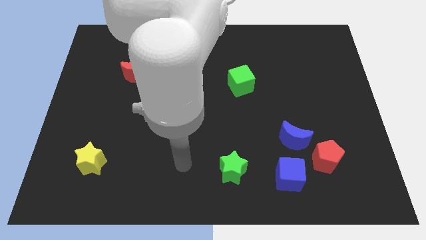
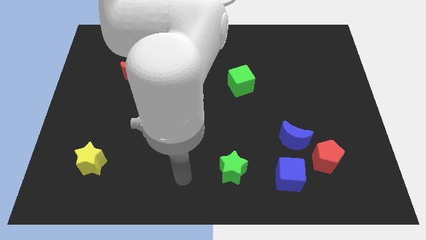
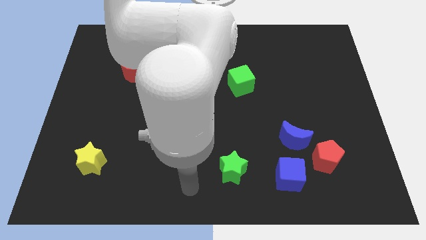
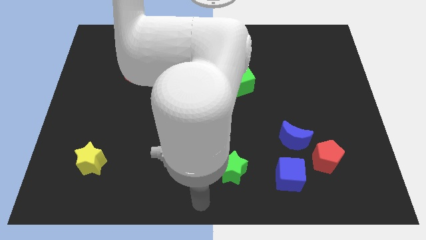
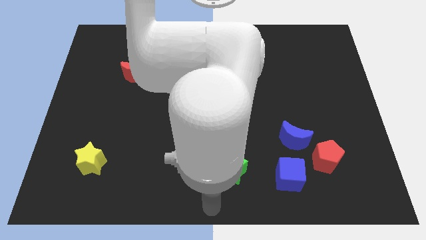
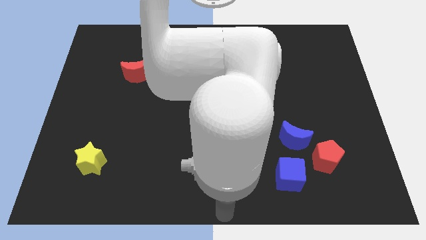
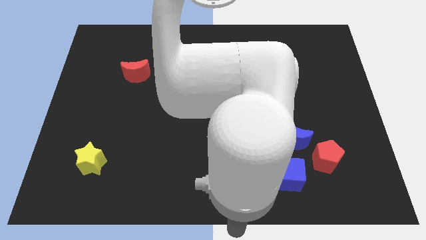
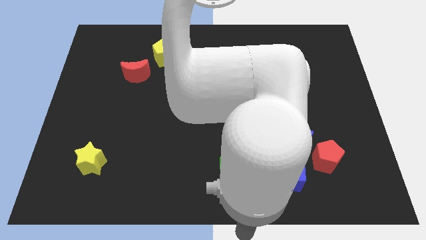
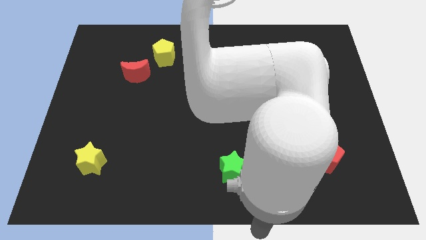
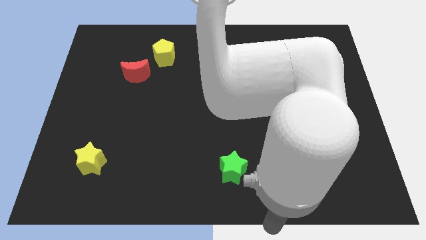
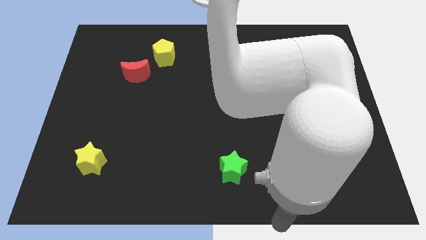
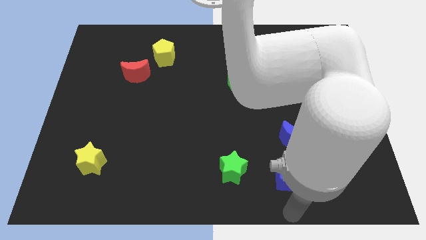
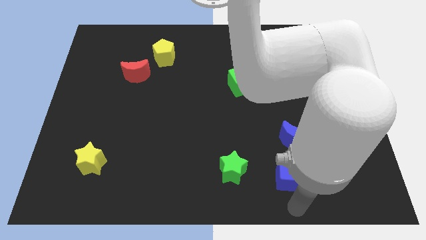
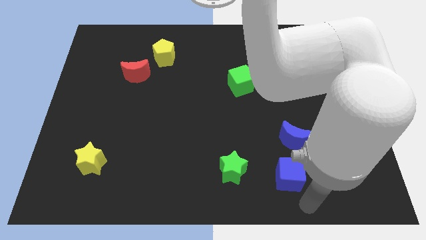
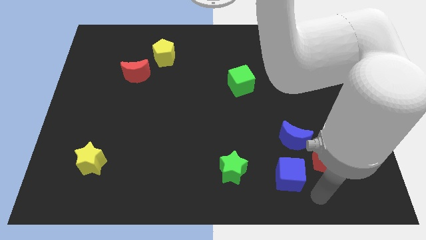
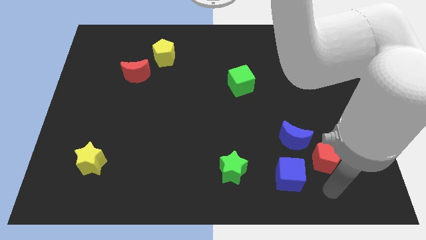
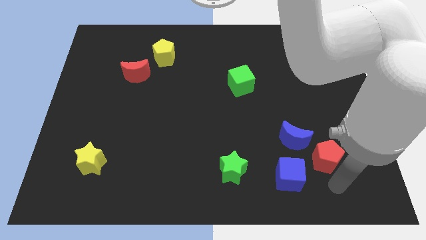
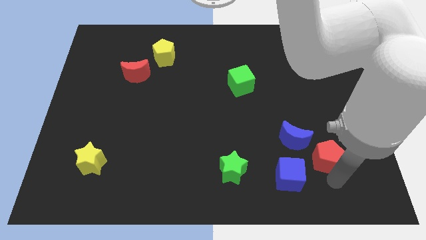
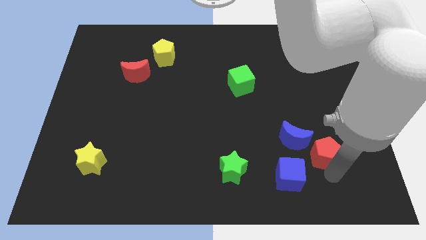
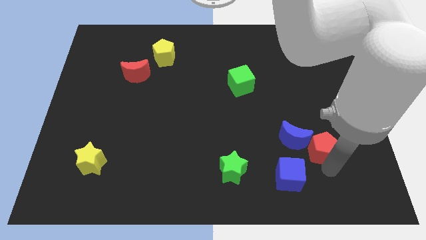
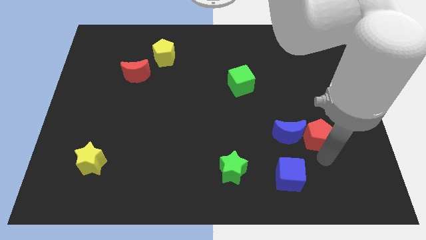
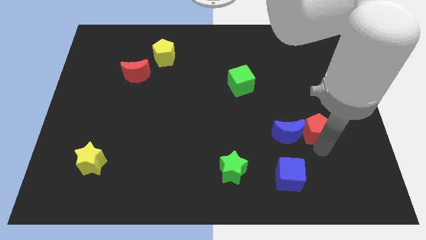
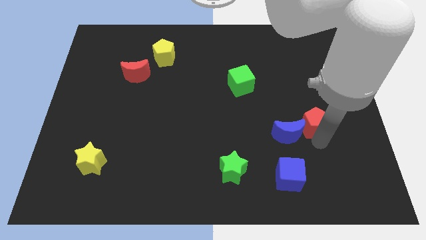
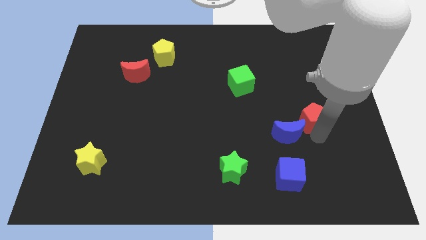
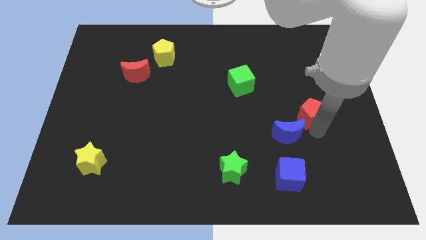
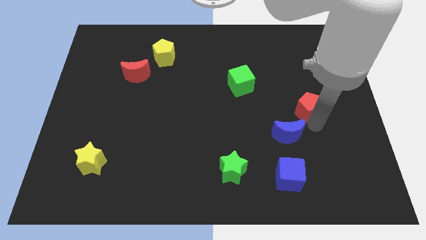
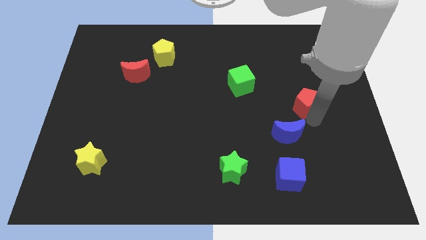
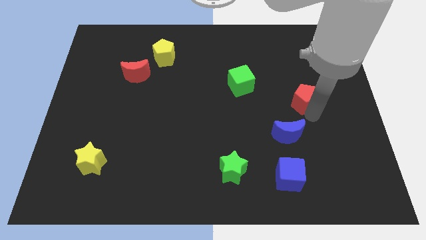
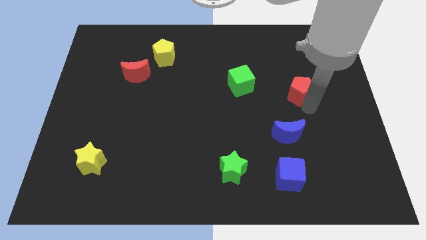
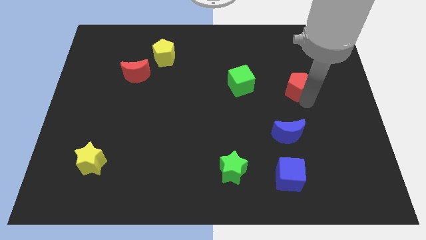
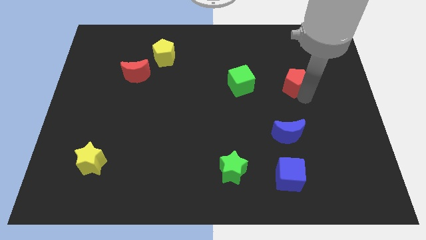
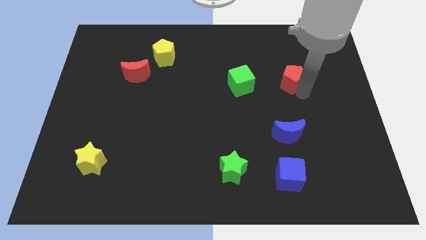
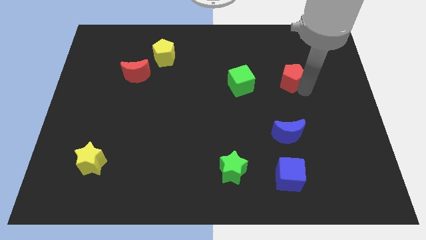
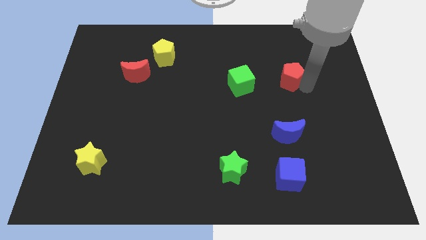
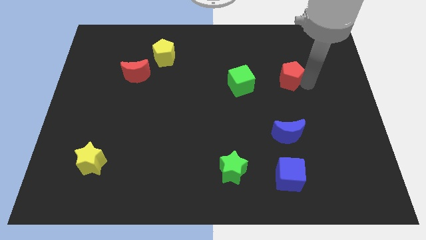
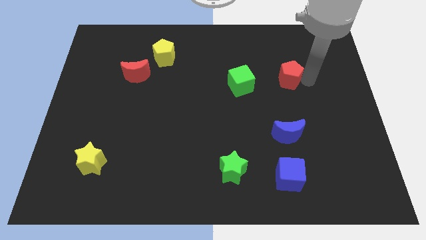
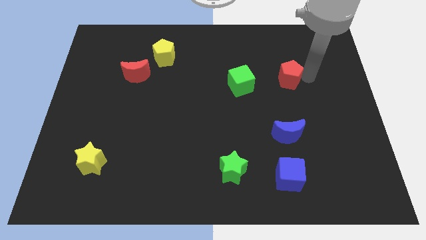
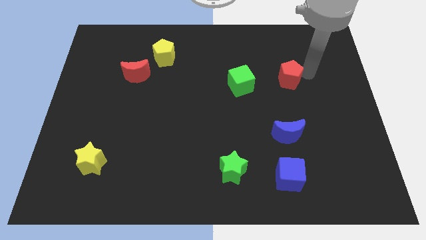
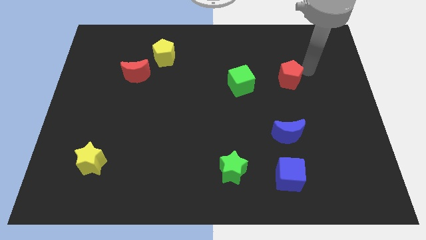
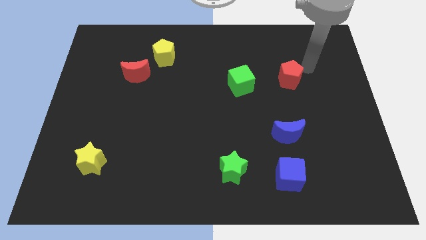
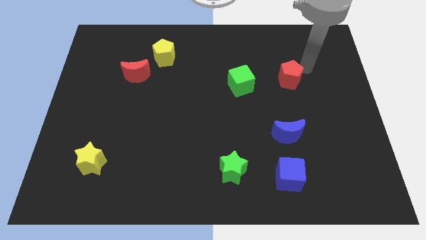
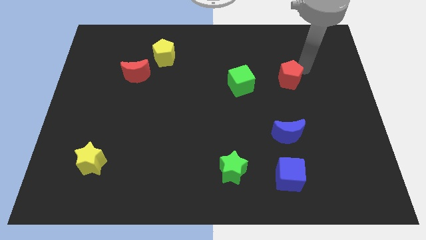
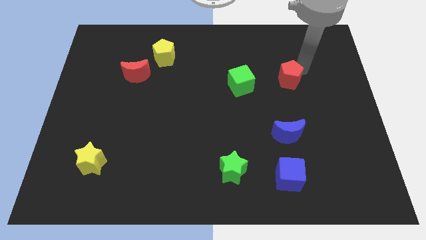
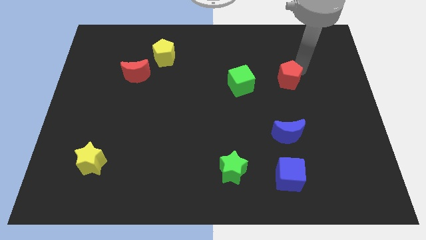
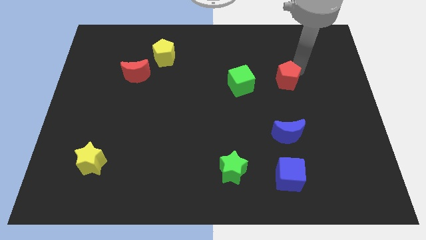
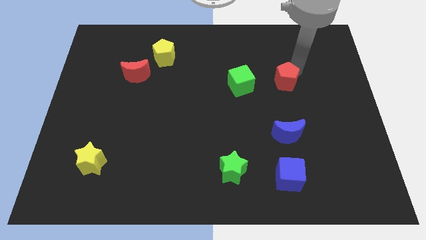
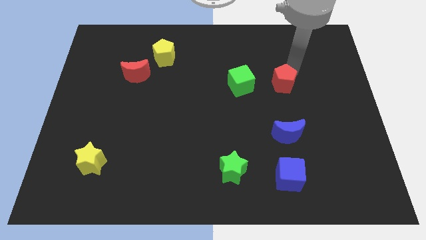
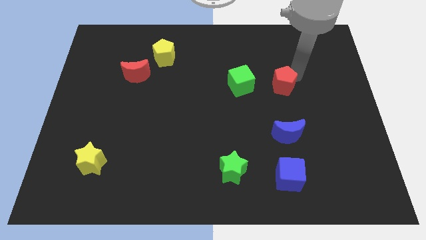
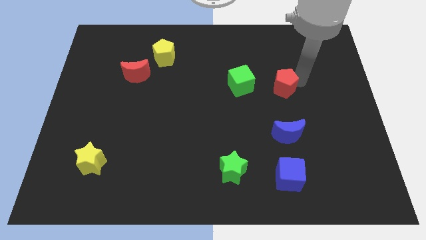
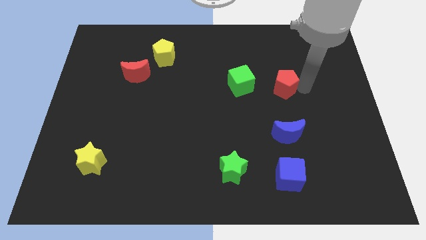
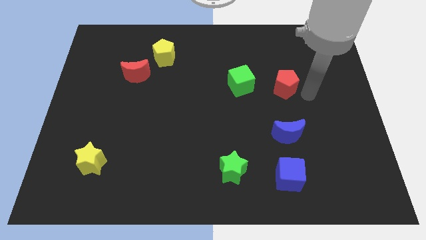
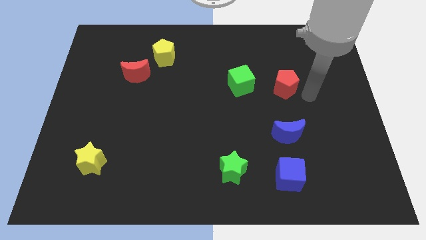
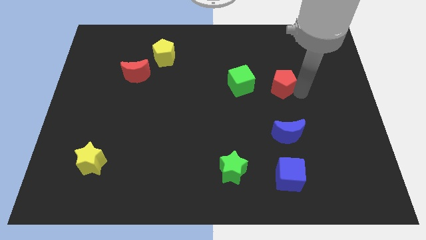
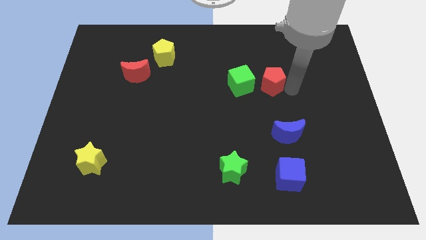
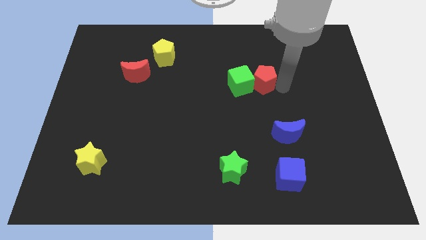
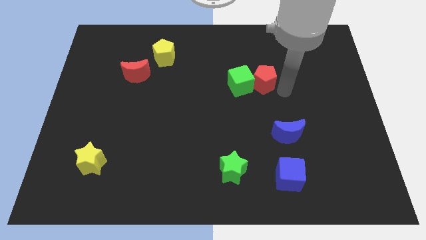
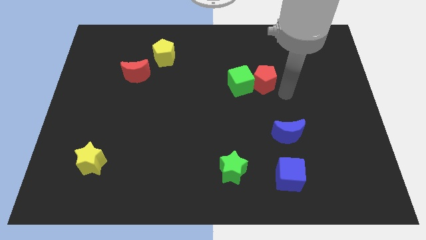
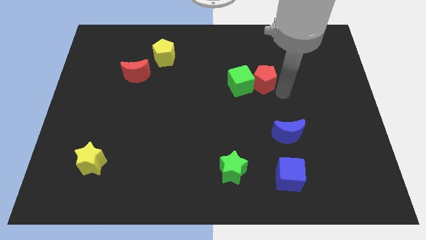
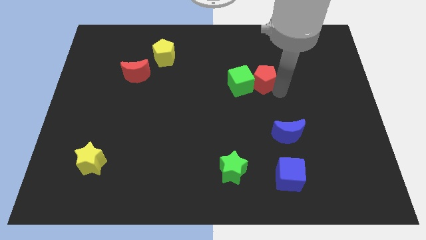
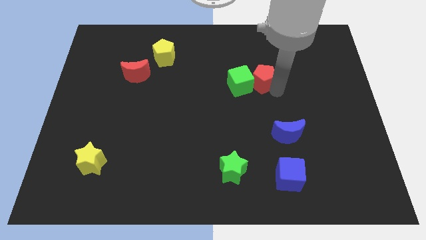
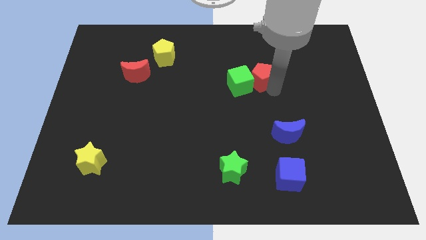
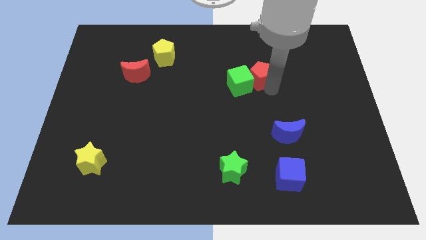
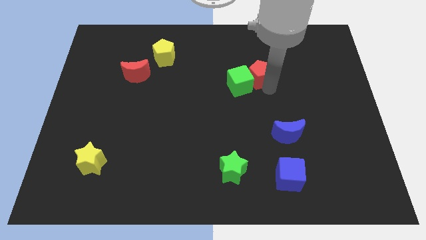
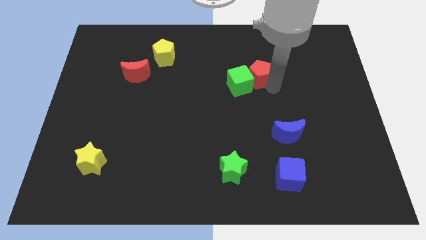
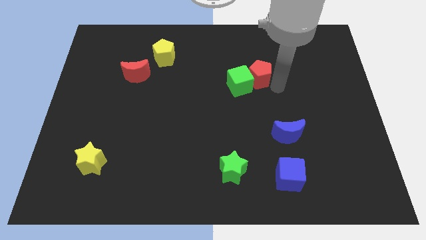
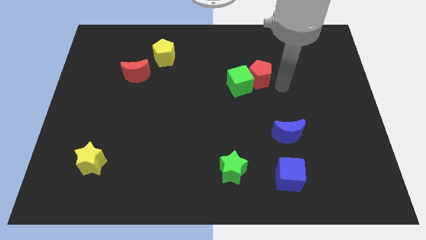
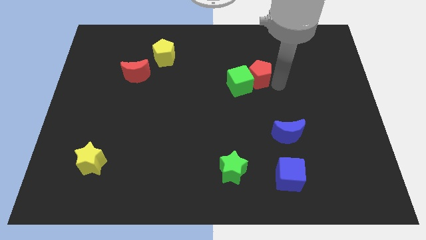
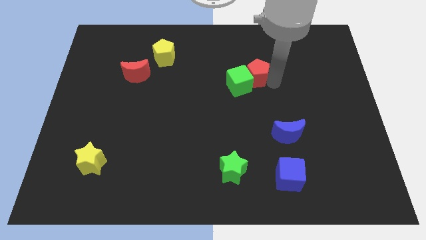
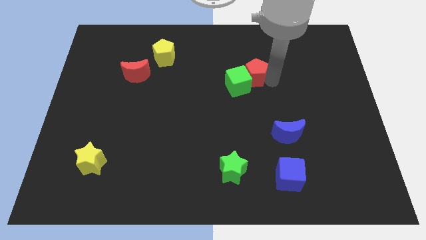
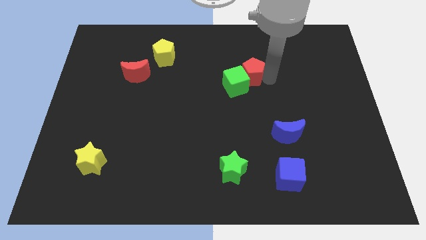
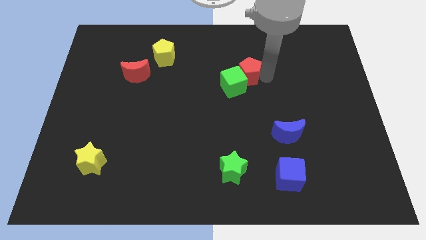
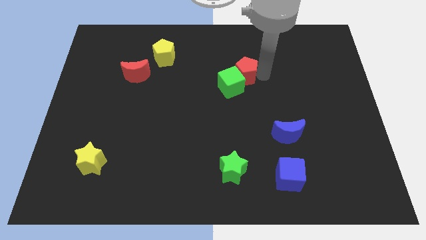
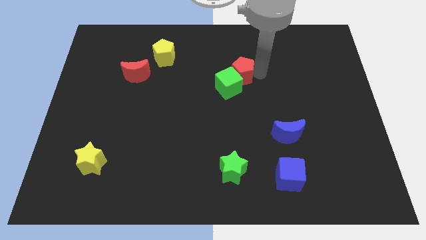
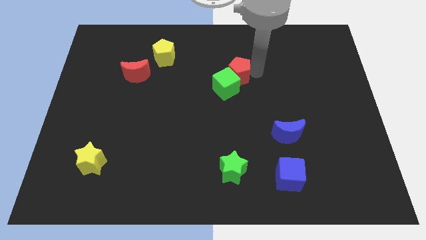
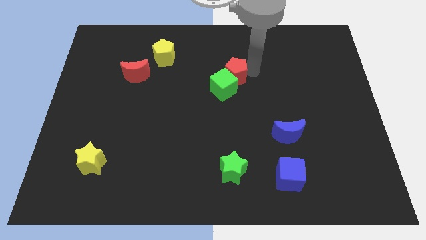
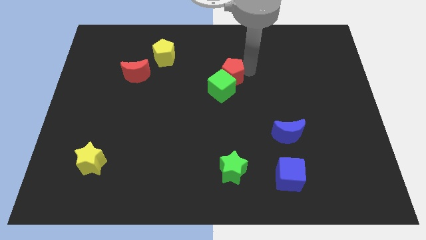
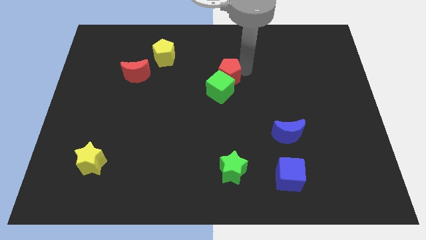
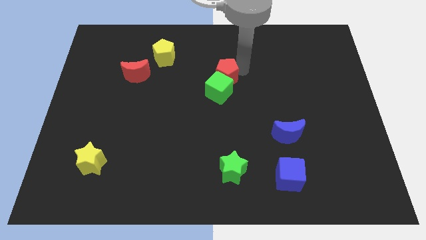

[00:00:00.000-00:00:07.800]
slide the red pentagon to the top left side of the green cube
